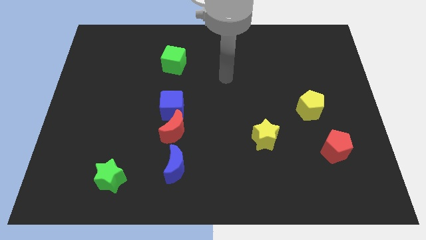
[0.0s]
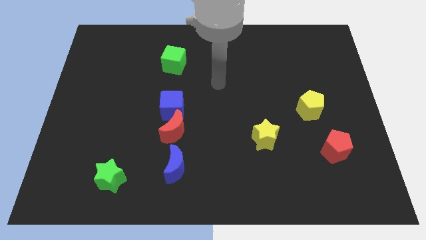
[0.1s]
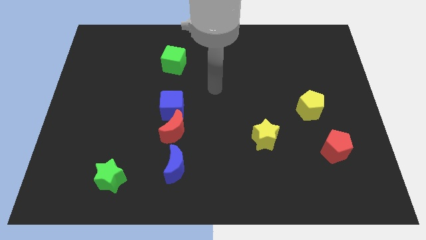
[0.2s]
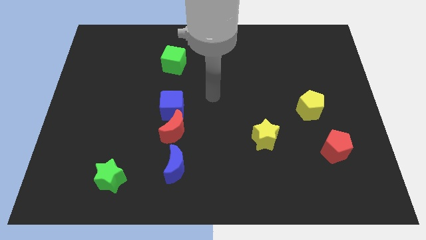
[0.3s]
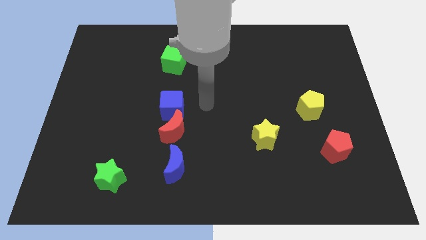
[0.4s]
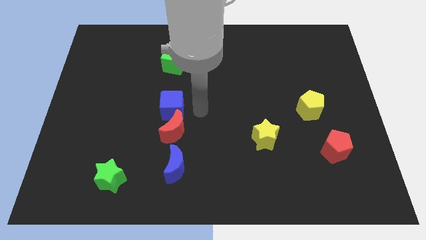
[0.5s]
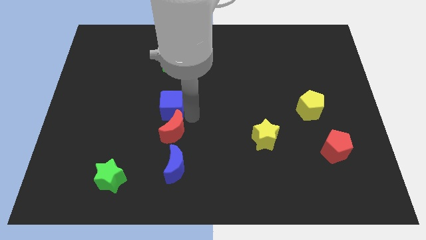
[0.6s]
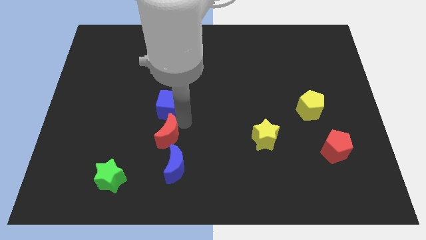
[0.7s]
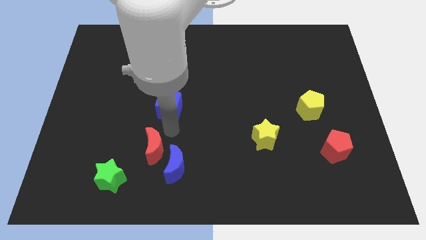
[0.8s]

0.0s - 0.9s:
separate the blue cube from the red moon

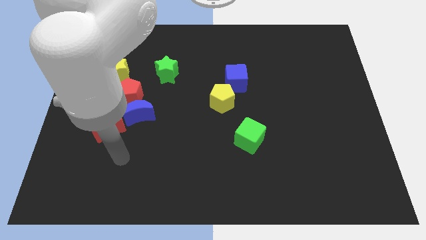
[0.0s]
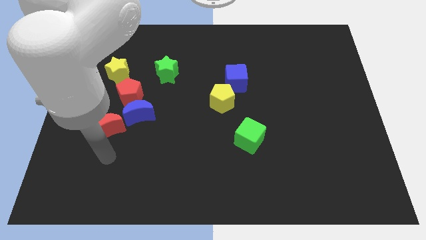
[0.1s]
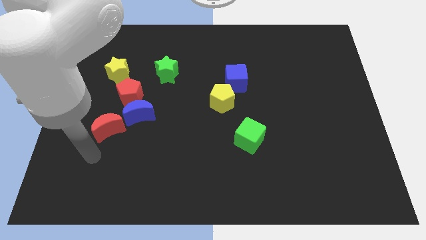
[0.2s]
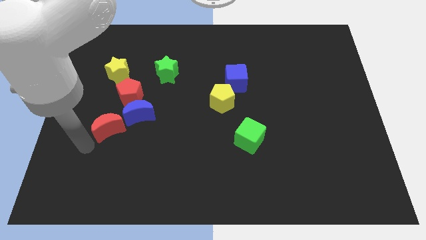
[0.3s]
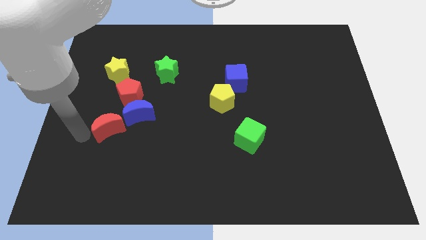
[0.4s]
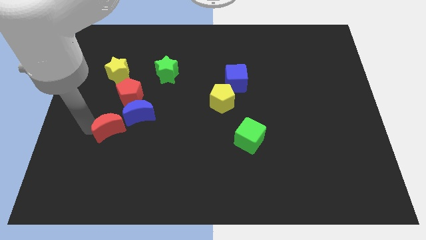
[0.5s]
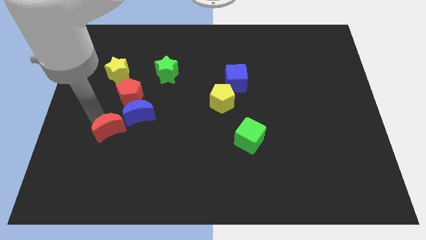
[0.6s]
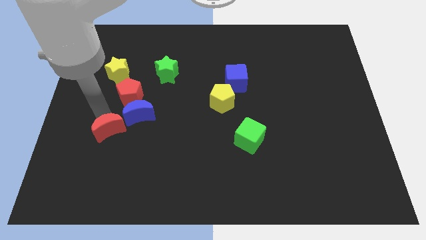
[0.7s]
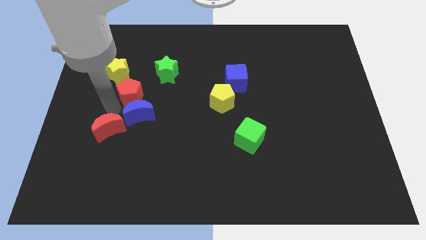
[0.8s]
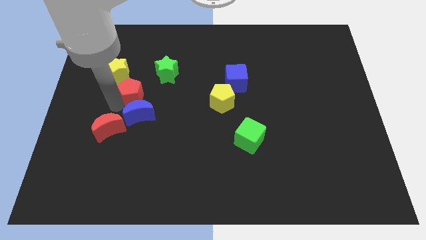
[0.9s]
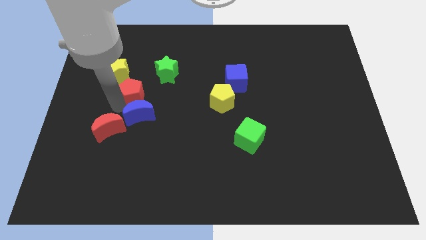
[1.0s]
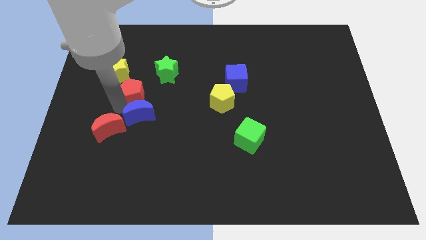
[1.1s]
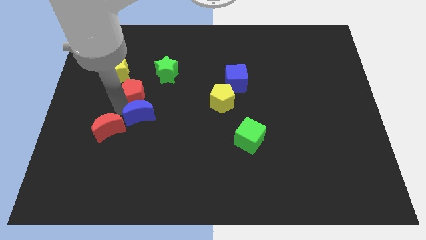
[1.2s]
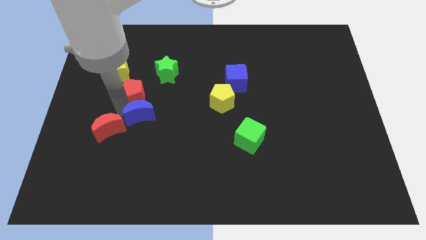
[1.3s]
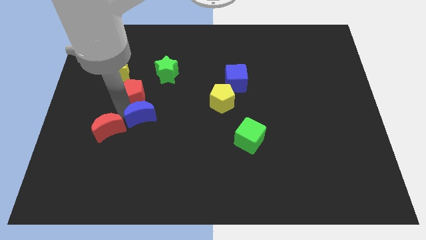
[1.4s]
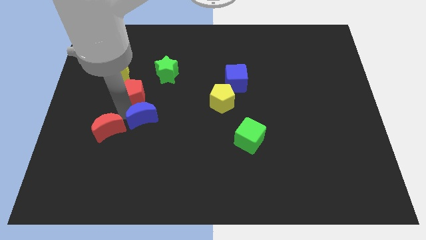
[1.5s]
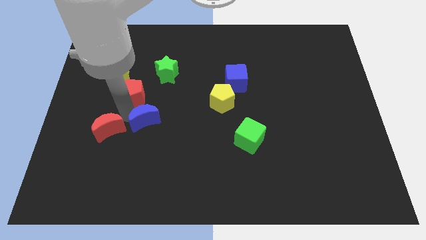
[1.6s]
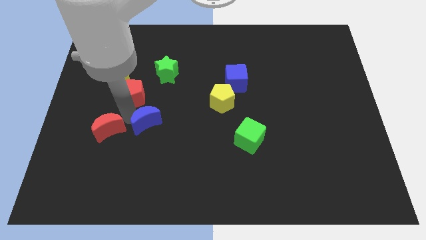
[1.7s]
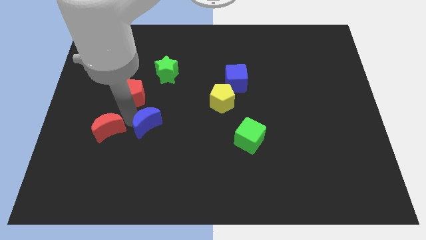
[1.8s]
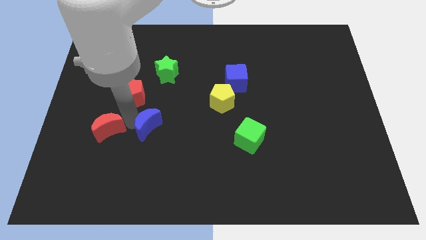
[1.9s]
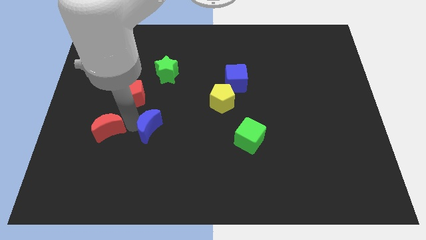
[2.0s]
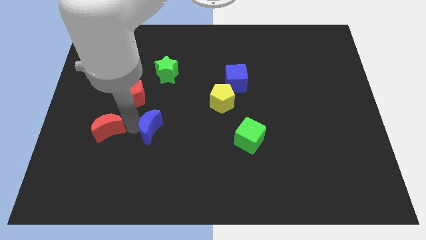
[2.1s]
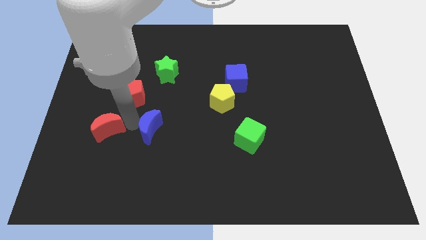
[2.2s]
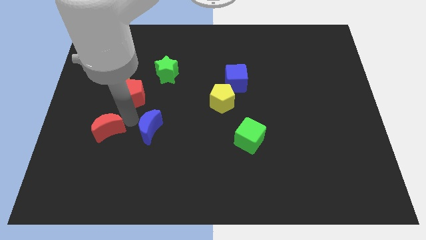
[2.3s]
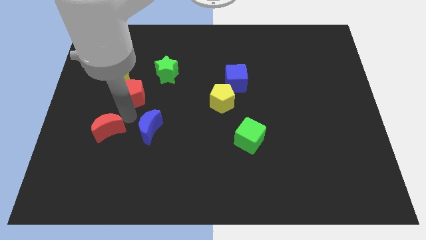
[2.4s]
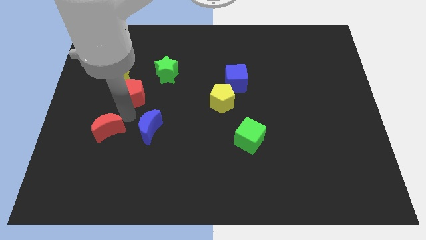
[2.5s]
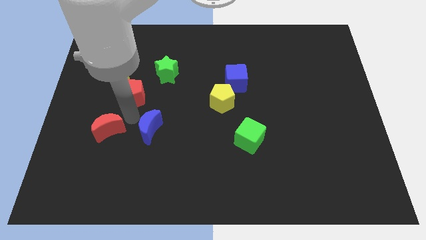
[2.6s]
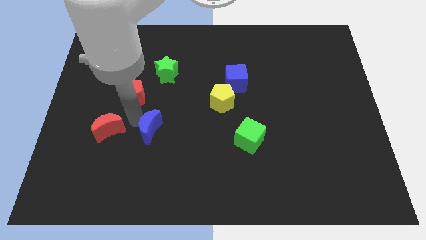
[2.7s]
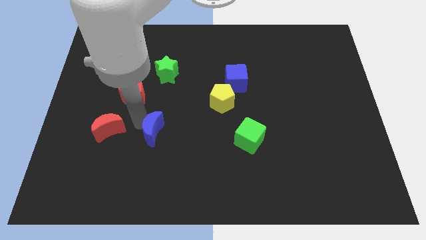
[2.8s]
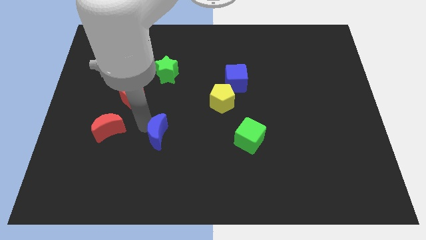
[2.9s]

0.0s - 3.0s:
pull the blue moon apart from the red pentagon and red moon

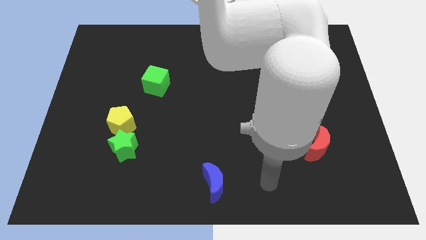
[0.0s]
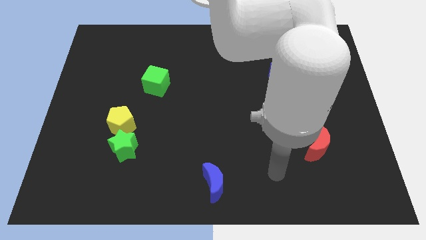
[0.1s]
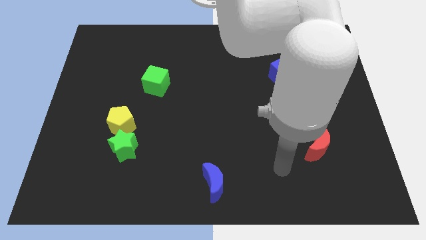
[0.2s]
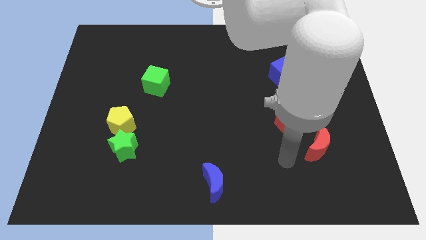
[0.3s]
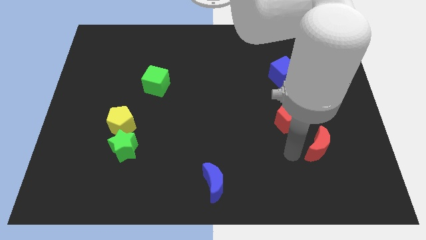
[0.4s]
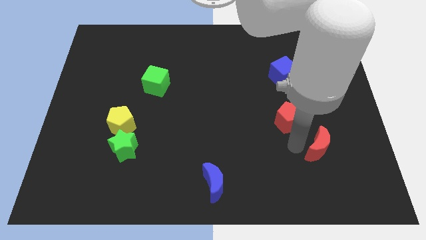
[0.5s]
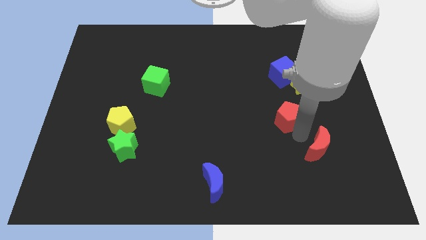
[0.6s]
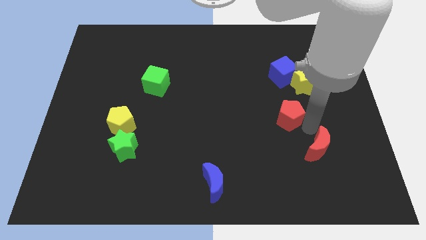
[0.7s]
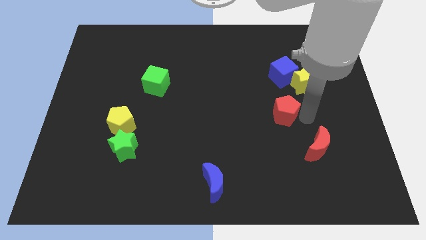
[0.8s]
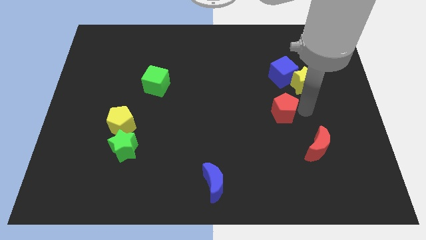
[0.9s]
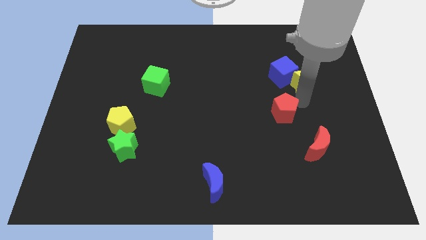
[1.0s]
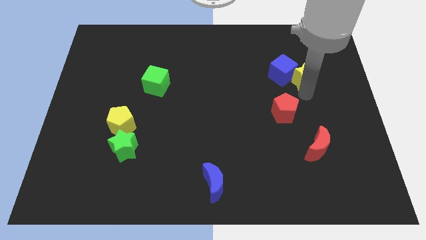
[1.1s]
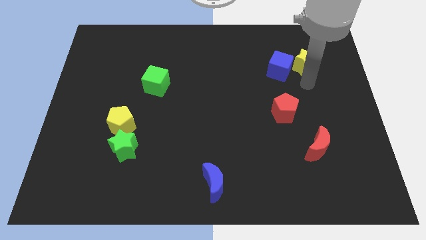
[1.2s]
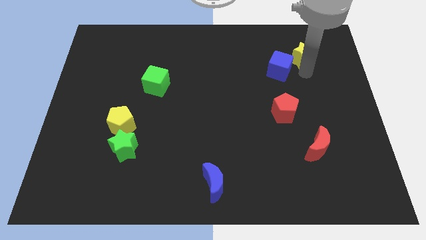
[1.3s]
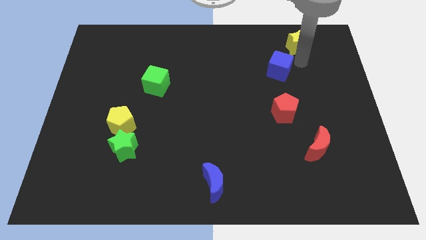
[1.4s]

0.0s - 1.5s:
pull the blue cube apart from the yellow star

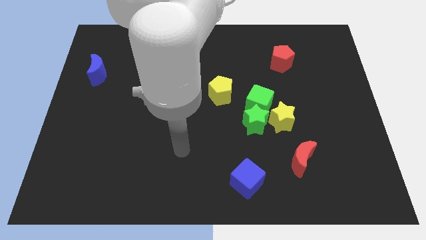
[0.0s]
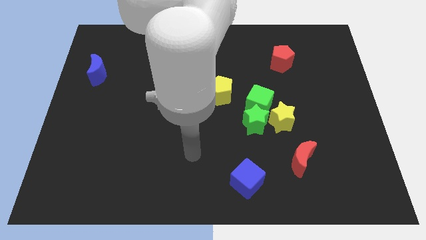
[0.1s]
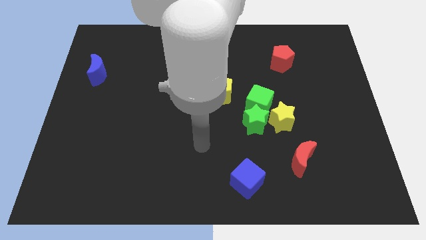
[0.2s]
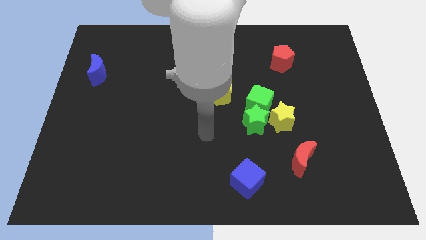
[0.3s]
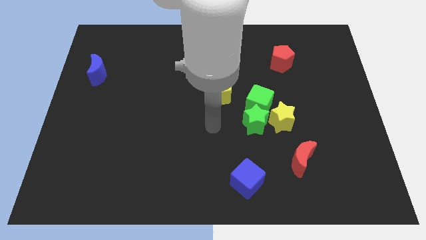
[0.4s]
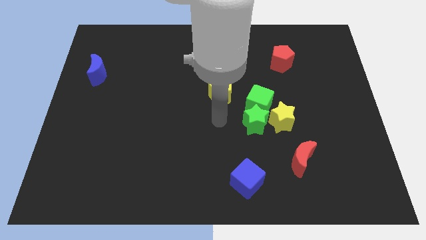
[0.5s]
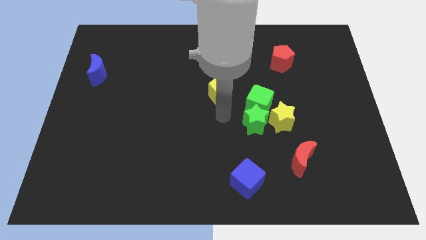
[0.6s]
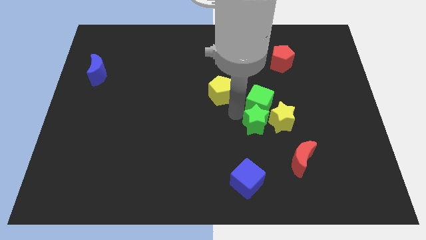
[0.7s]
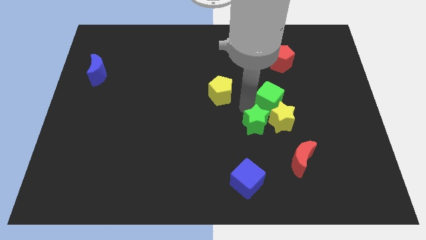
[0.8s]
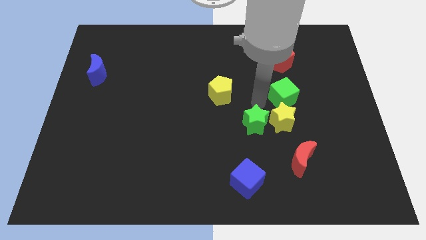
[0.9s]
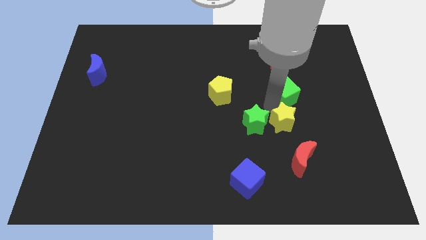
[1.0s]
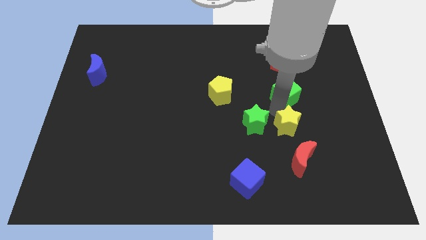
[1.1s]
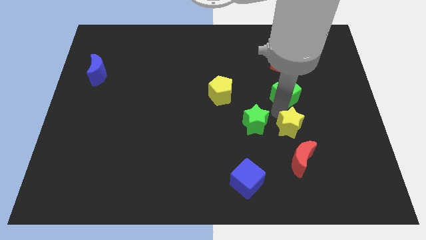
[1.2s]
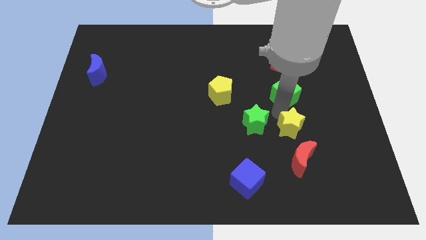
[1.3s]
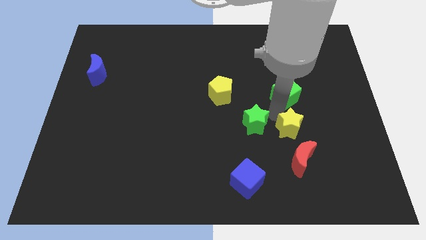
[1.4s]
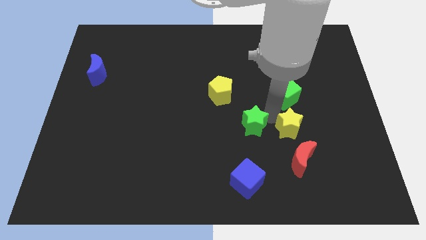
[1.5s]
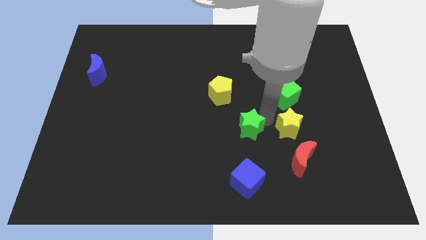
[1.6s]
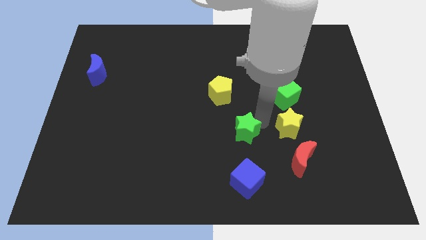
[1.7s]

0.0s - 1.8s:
separate the green star from the green cube and yellow star

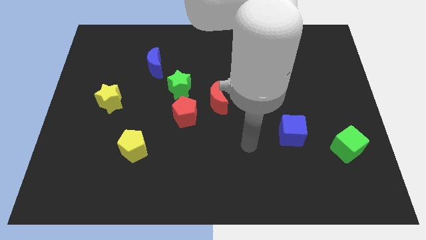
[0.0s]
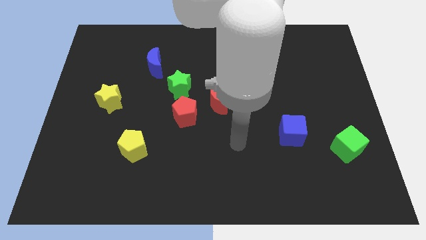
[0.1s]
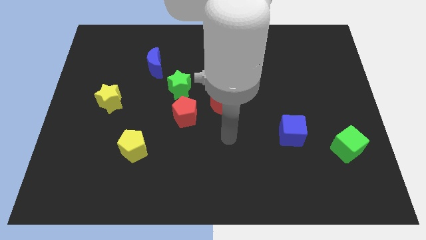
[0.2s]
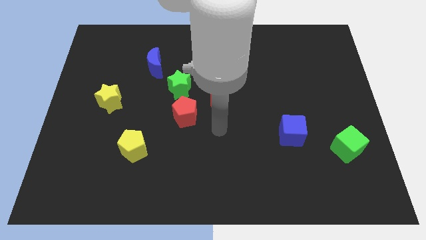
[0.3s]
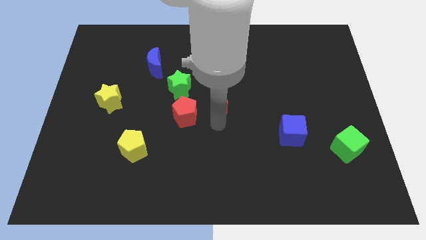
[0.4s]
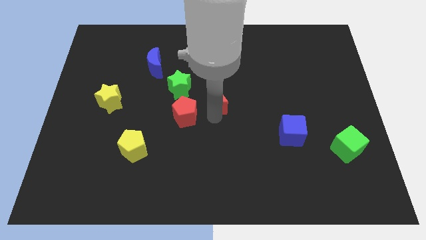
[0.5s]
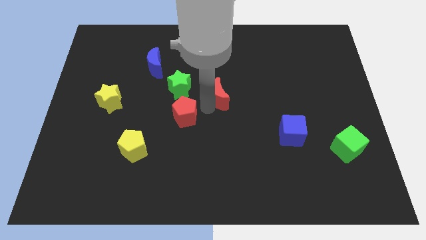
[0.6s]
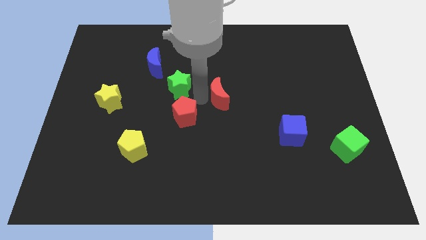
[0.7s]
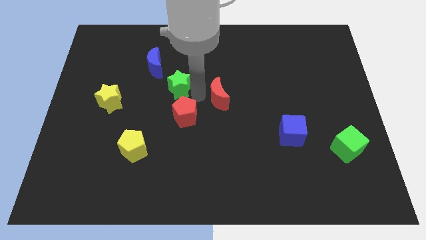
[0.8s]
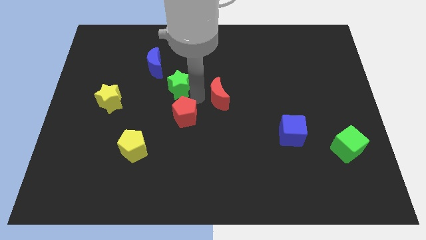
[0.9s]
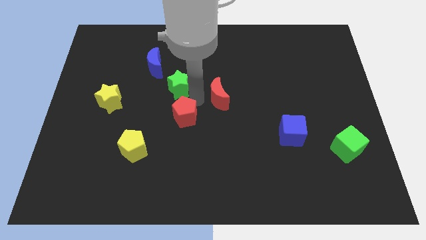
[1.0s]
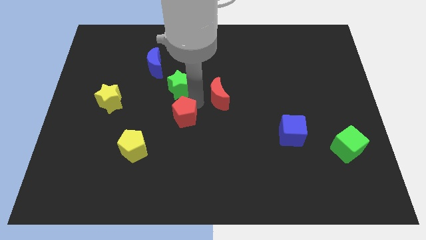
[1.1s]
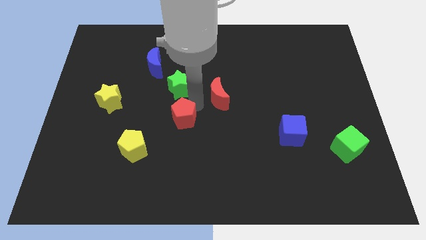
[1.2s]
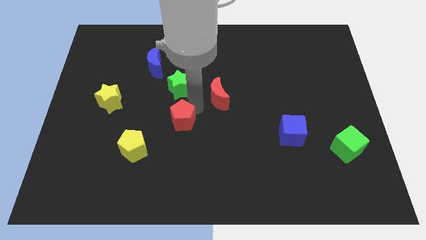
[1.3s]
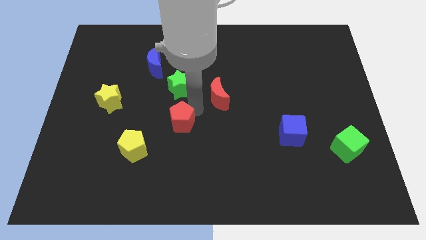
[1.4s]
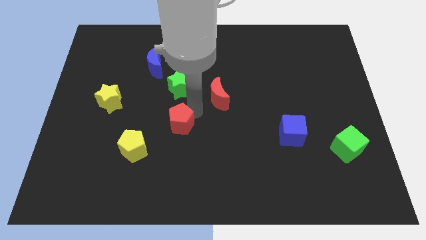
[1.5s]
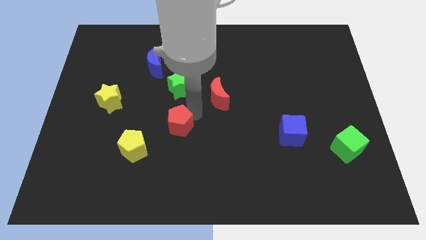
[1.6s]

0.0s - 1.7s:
move the red pentagon away from the red moon and green star

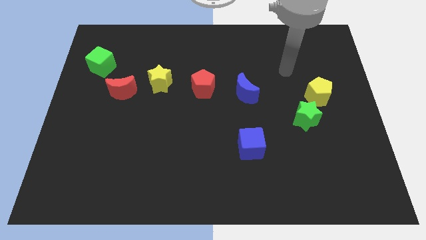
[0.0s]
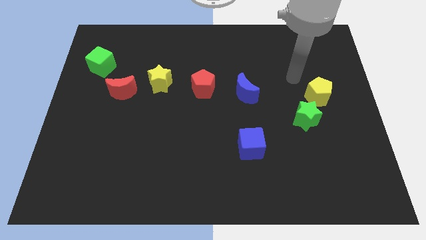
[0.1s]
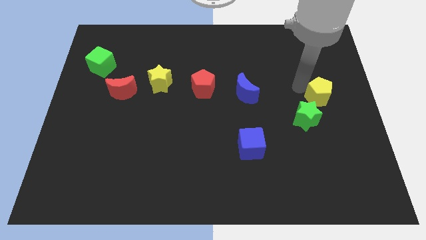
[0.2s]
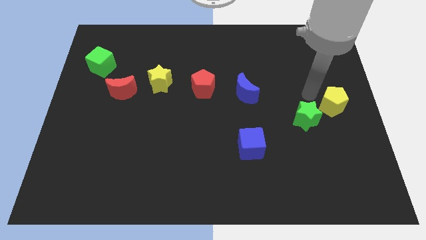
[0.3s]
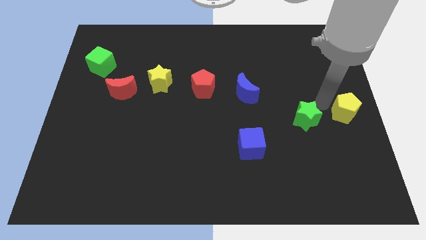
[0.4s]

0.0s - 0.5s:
move the green star away from the yellow pentagon
